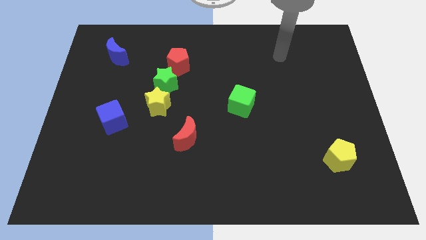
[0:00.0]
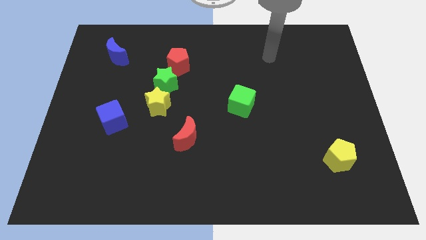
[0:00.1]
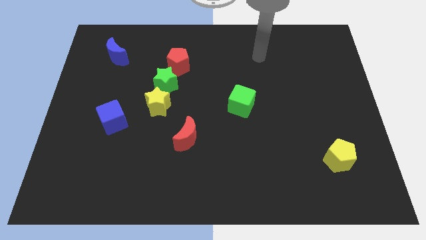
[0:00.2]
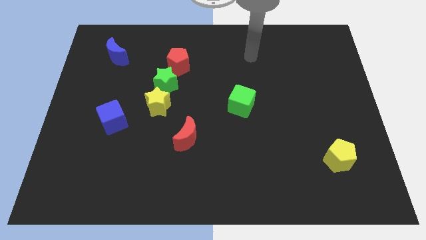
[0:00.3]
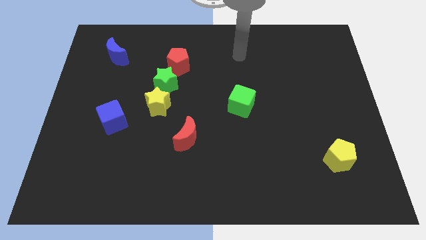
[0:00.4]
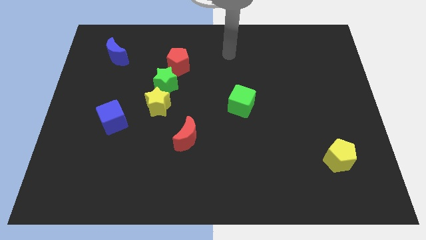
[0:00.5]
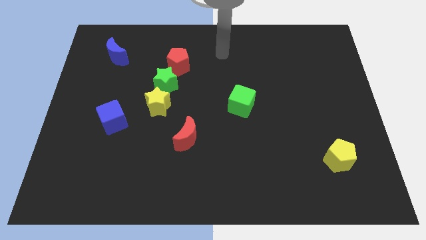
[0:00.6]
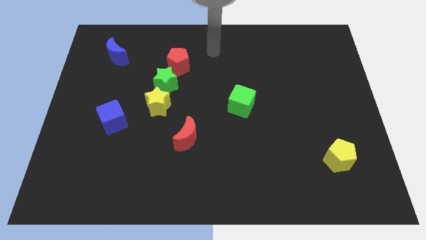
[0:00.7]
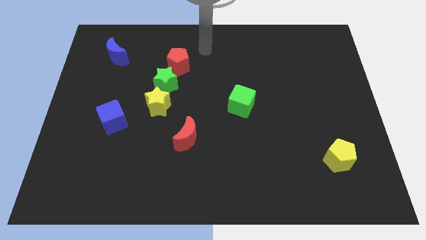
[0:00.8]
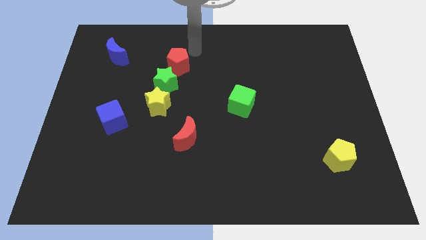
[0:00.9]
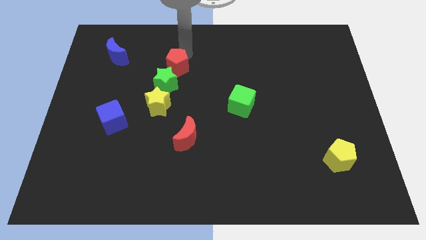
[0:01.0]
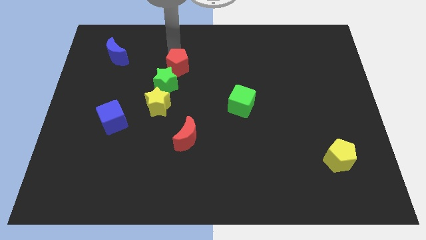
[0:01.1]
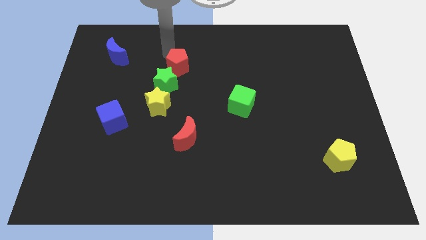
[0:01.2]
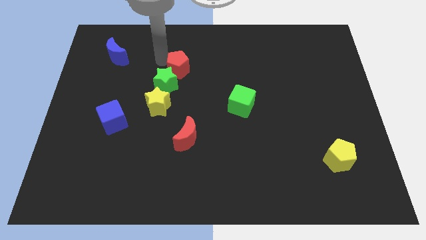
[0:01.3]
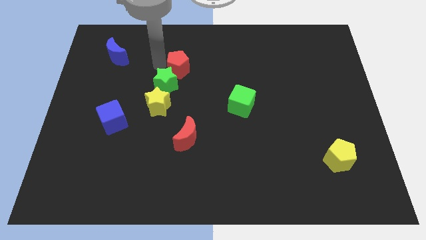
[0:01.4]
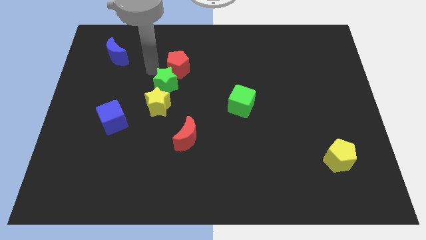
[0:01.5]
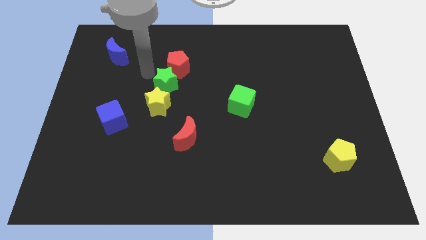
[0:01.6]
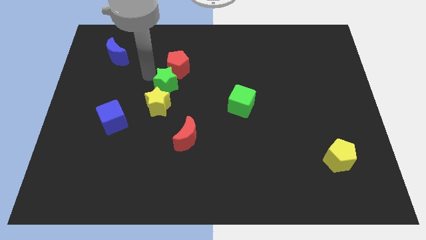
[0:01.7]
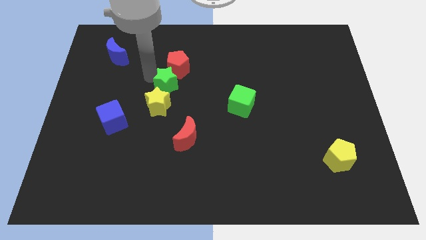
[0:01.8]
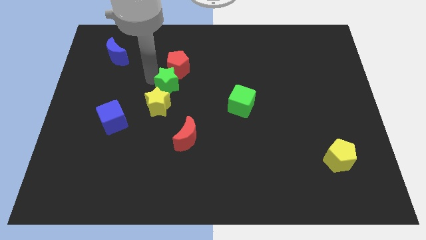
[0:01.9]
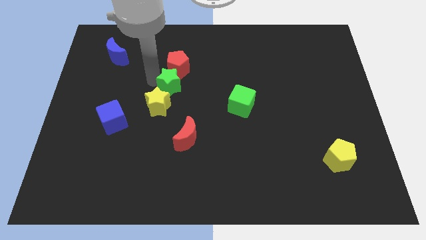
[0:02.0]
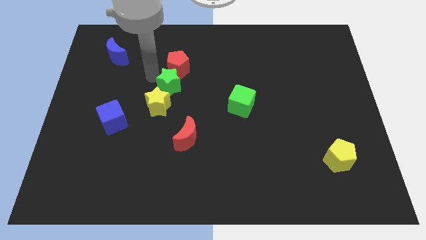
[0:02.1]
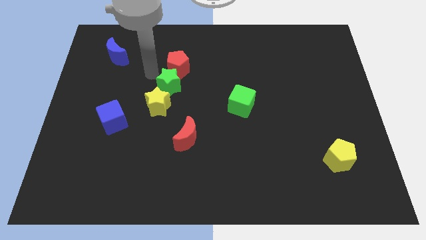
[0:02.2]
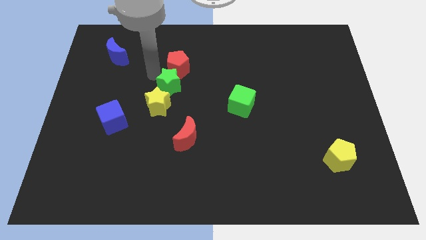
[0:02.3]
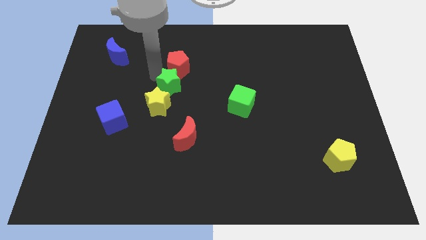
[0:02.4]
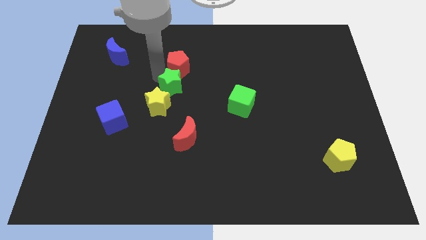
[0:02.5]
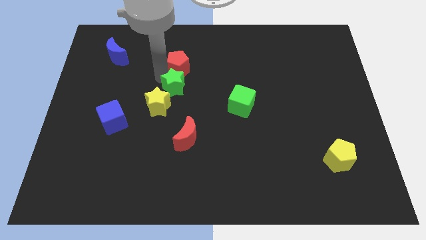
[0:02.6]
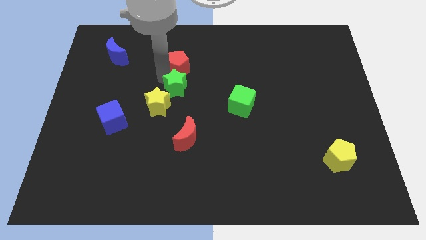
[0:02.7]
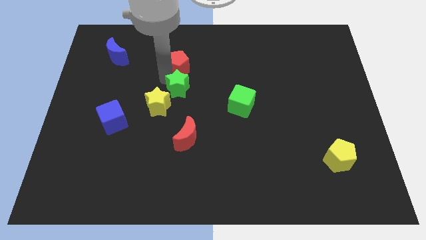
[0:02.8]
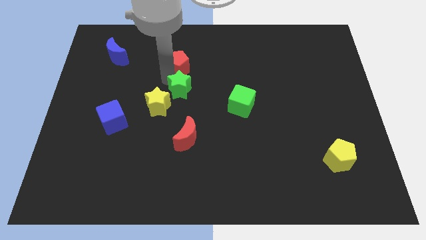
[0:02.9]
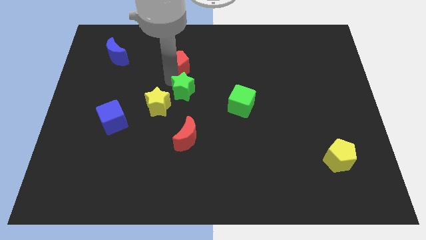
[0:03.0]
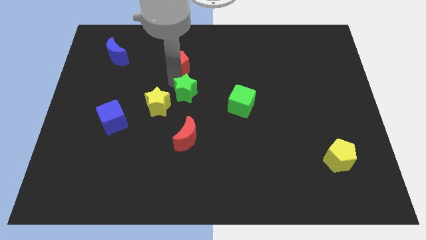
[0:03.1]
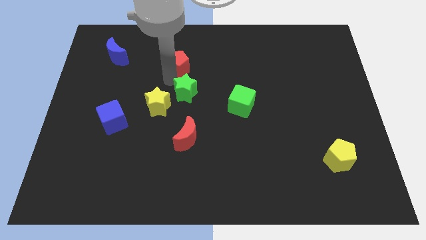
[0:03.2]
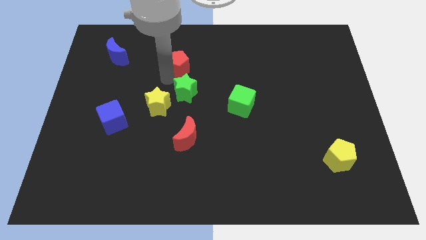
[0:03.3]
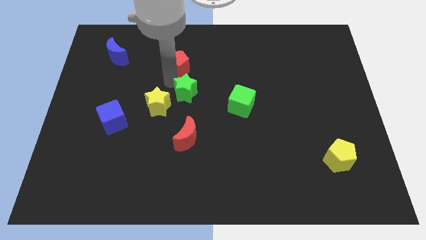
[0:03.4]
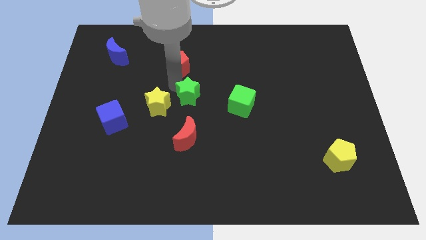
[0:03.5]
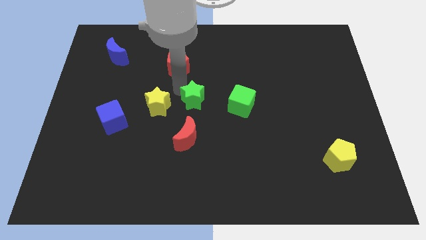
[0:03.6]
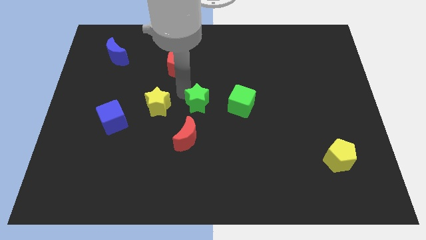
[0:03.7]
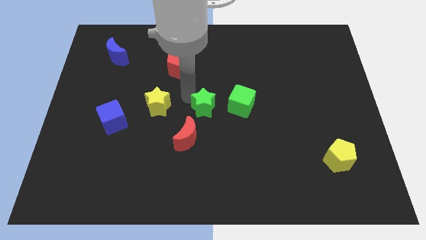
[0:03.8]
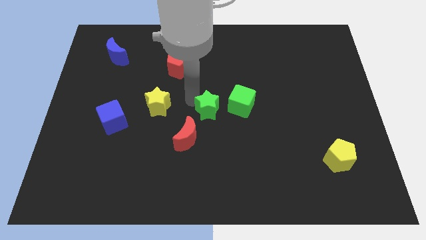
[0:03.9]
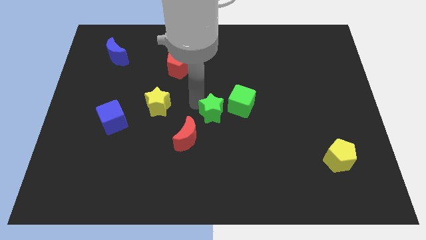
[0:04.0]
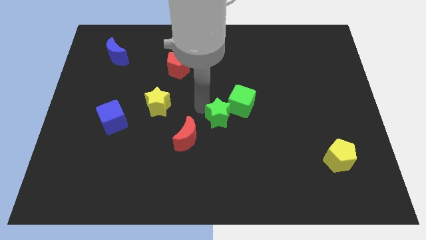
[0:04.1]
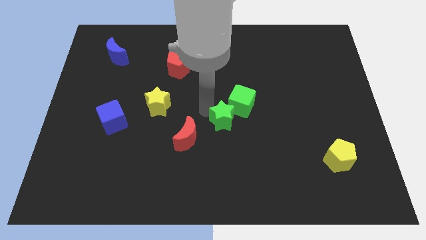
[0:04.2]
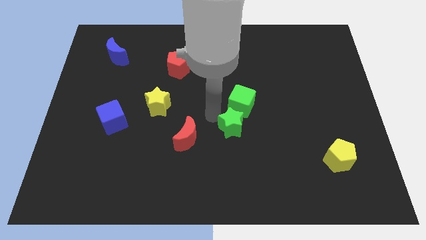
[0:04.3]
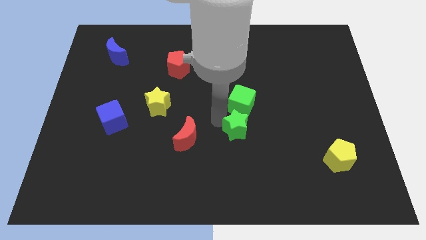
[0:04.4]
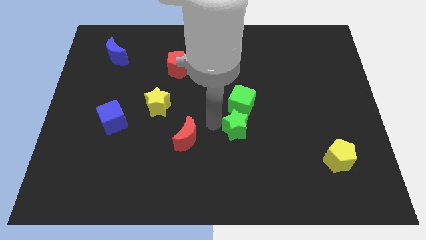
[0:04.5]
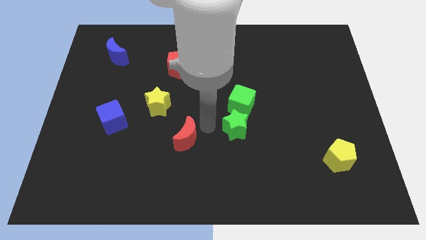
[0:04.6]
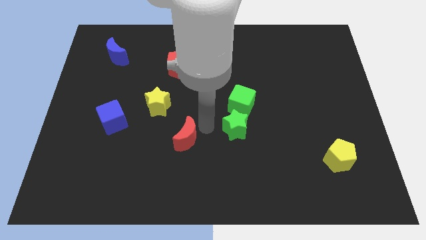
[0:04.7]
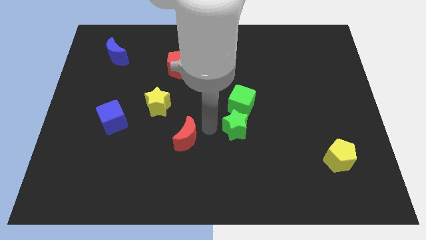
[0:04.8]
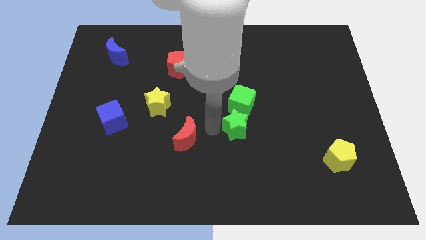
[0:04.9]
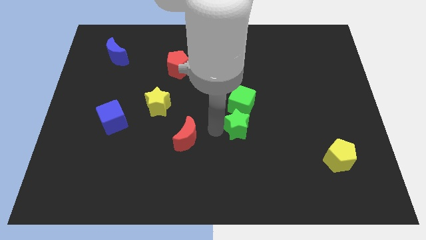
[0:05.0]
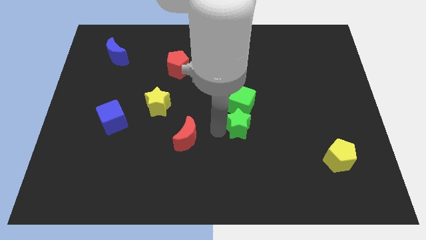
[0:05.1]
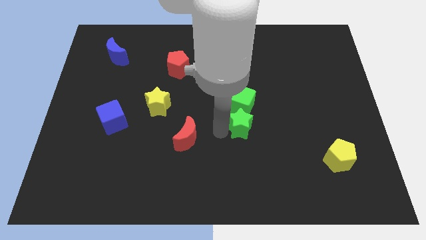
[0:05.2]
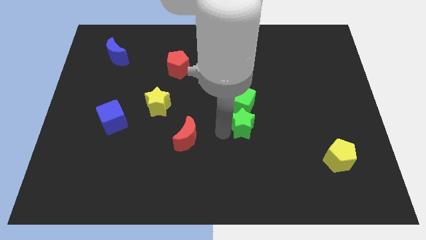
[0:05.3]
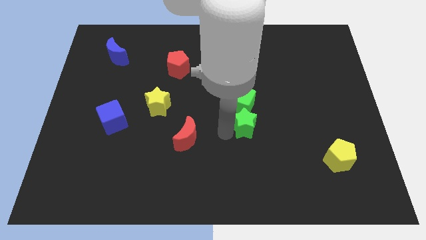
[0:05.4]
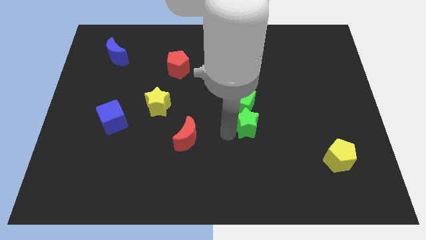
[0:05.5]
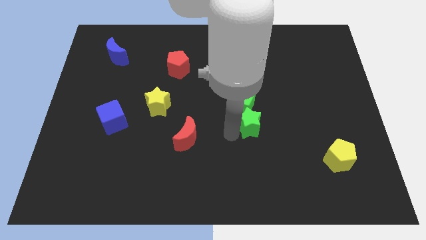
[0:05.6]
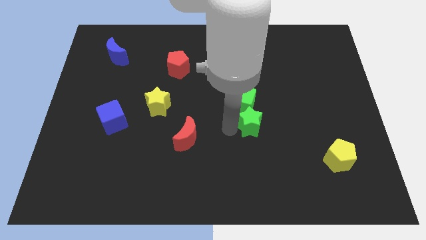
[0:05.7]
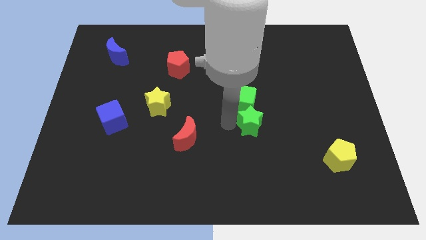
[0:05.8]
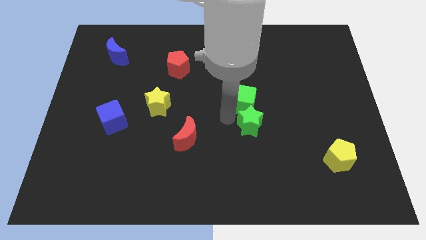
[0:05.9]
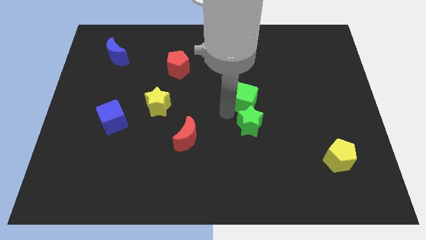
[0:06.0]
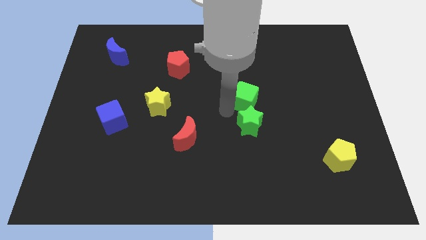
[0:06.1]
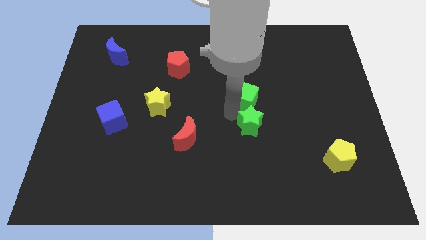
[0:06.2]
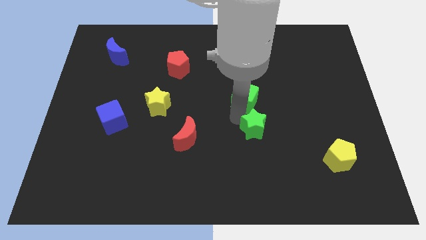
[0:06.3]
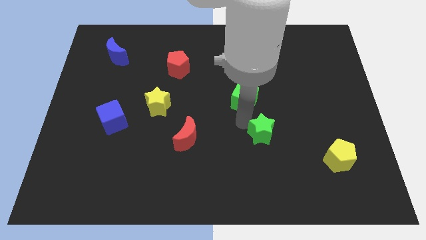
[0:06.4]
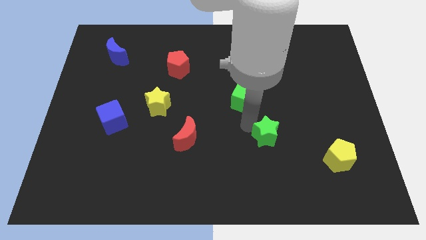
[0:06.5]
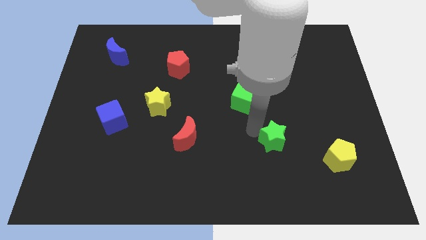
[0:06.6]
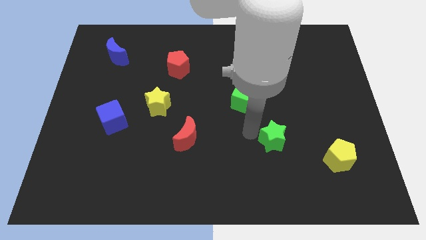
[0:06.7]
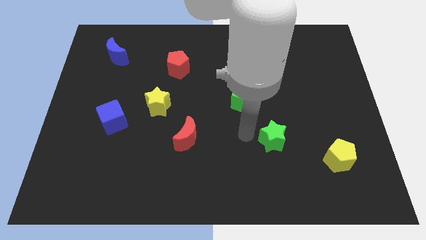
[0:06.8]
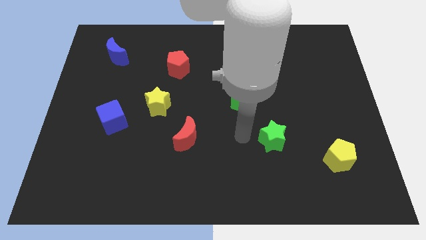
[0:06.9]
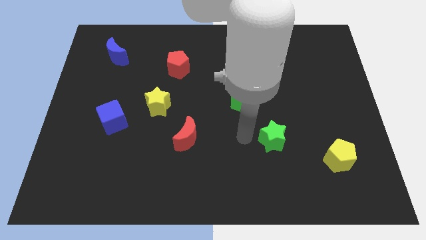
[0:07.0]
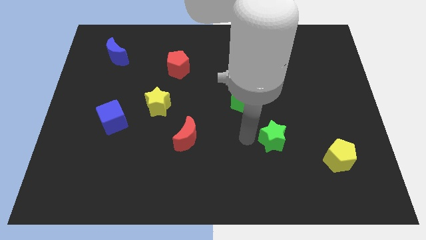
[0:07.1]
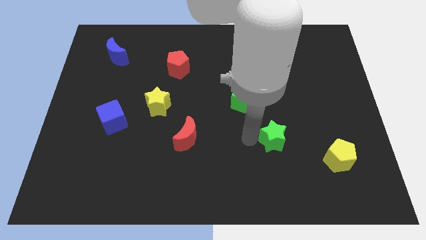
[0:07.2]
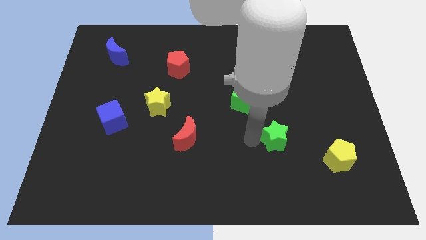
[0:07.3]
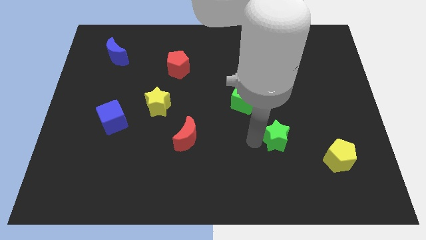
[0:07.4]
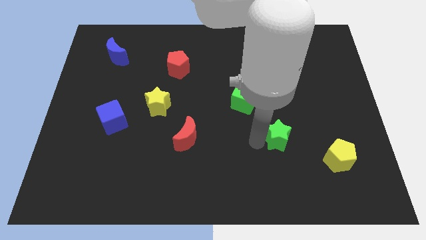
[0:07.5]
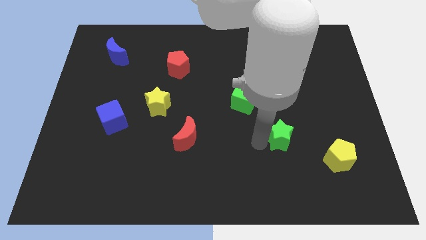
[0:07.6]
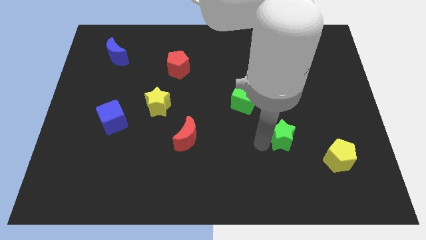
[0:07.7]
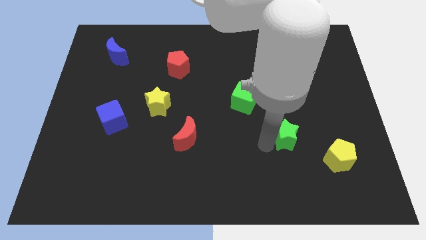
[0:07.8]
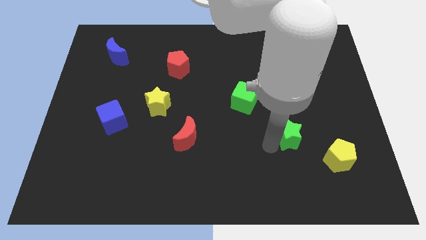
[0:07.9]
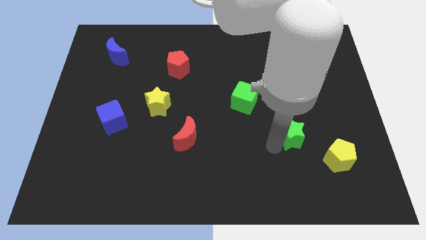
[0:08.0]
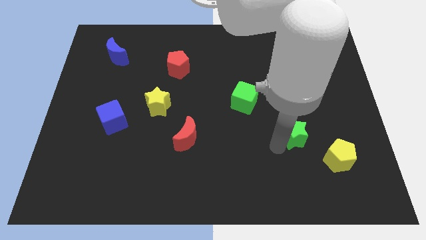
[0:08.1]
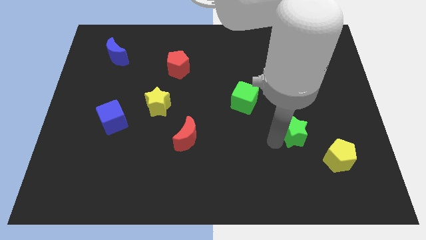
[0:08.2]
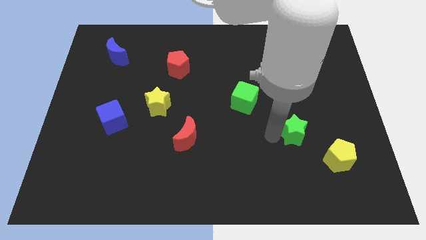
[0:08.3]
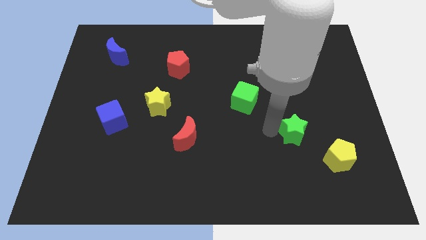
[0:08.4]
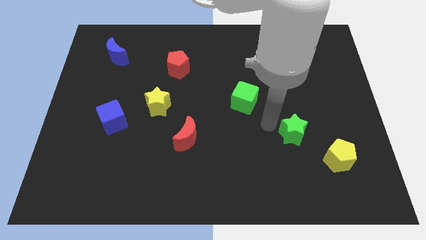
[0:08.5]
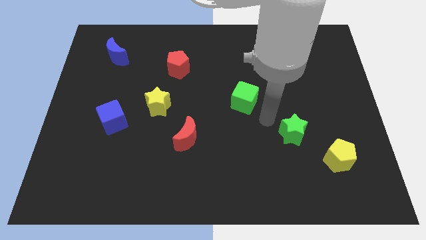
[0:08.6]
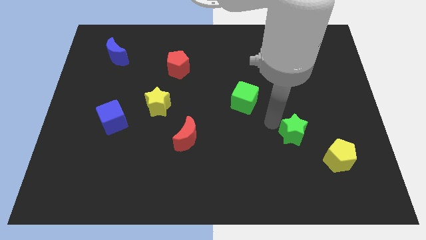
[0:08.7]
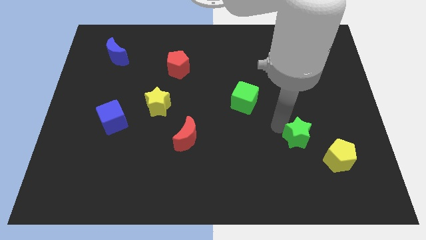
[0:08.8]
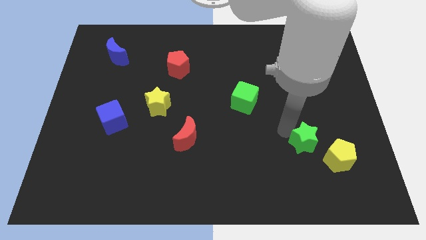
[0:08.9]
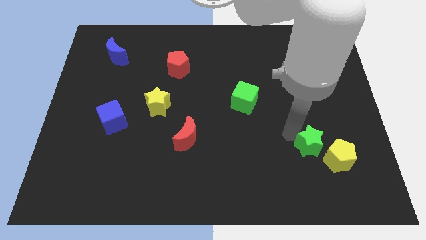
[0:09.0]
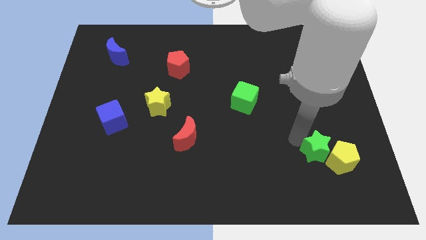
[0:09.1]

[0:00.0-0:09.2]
move the green star towards the yellow pentagon
